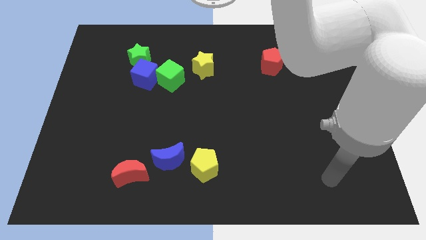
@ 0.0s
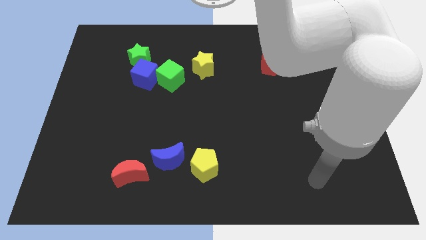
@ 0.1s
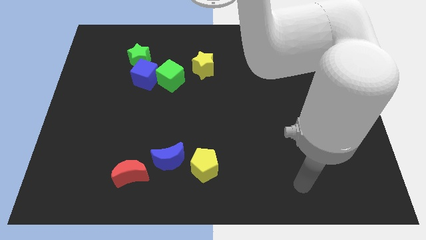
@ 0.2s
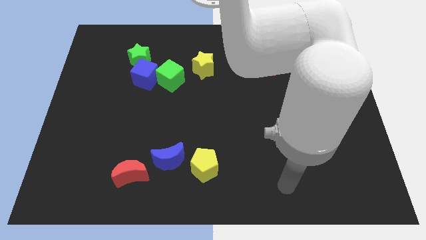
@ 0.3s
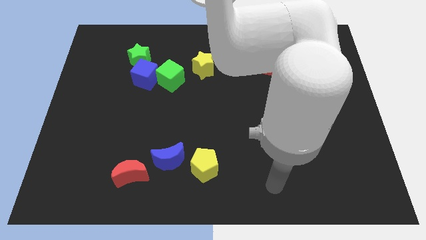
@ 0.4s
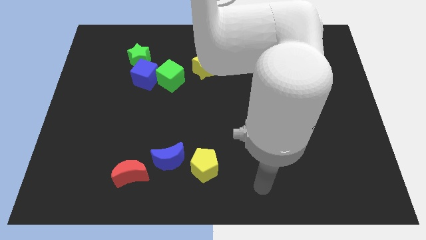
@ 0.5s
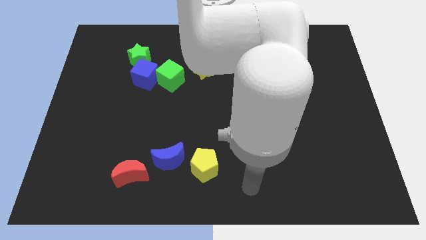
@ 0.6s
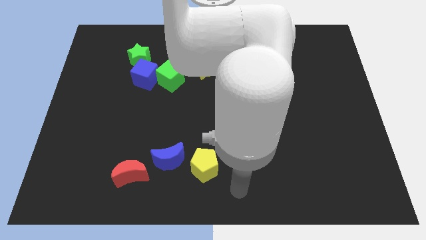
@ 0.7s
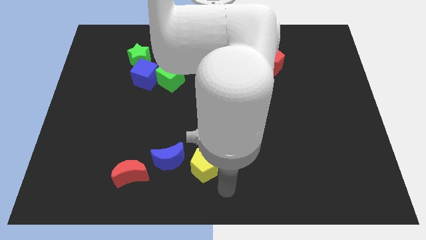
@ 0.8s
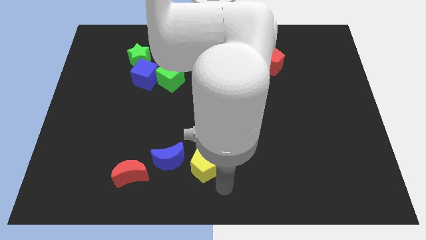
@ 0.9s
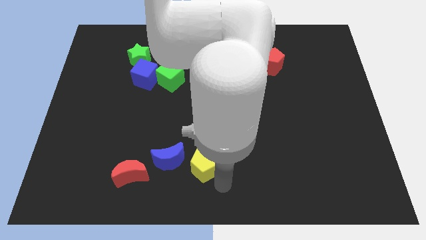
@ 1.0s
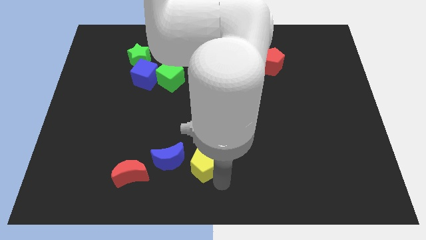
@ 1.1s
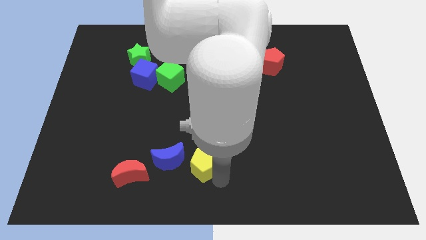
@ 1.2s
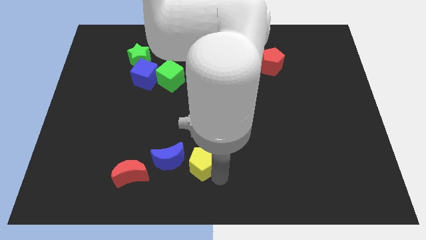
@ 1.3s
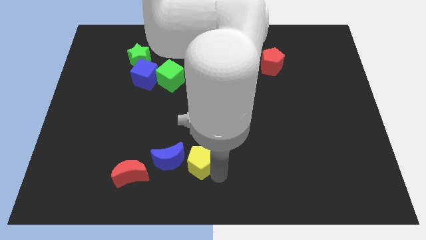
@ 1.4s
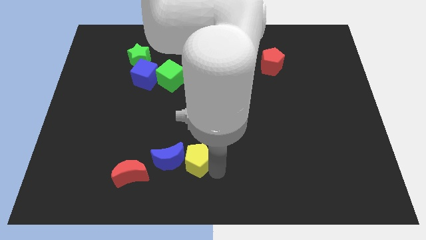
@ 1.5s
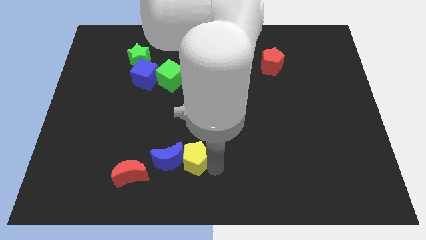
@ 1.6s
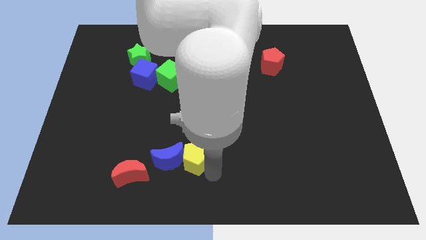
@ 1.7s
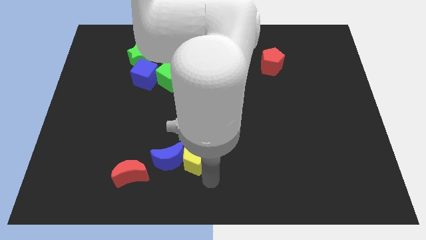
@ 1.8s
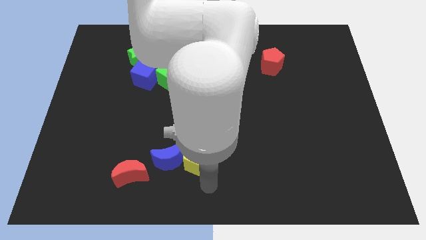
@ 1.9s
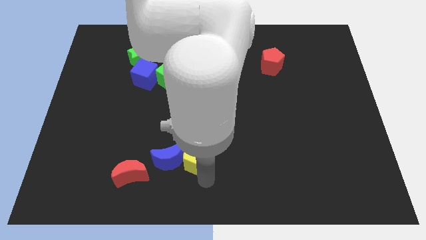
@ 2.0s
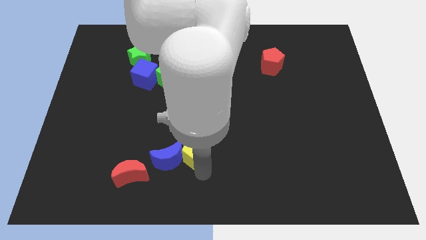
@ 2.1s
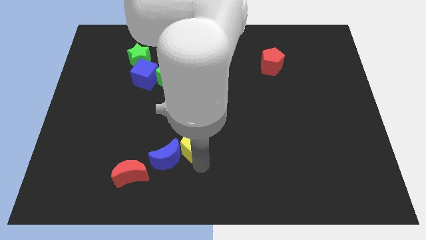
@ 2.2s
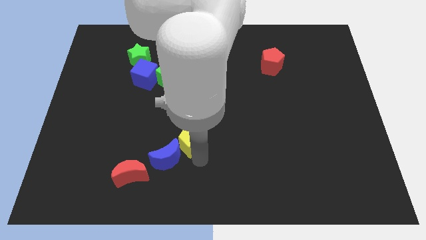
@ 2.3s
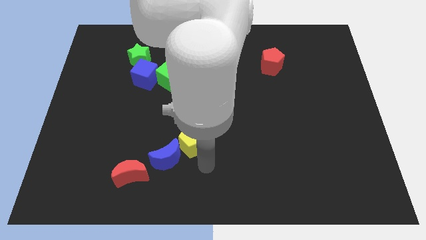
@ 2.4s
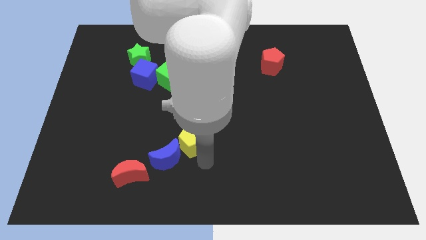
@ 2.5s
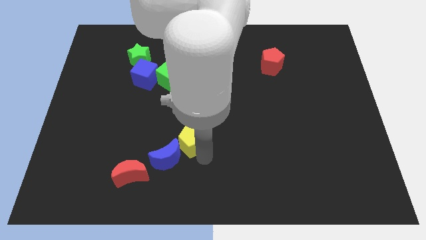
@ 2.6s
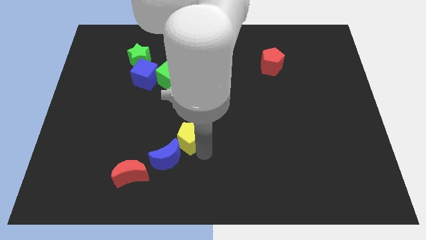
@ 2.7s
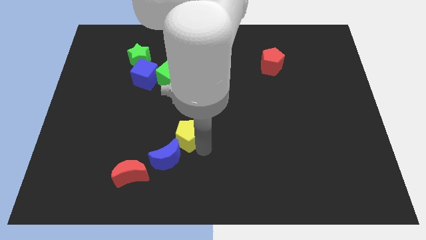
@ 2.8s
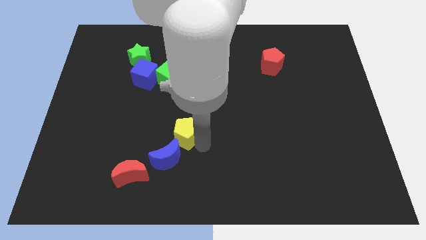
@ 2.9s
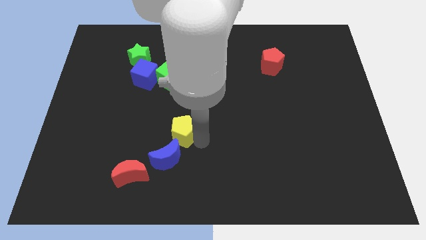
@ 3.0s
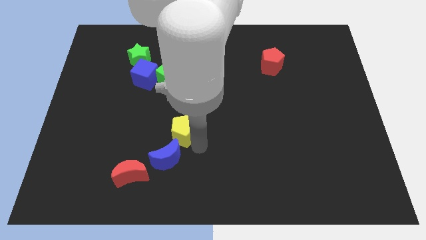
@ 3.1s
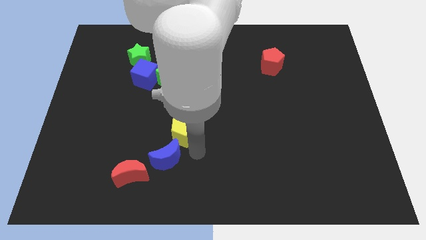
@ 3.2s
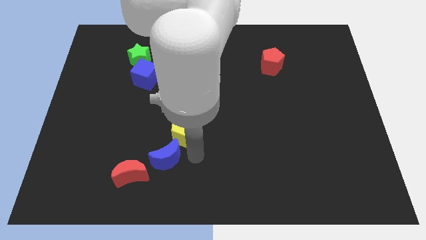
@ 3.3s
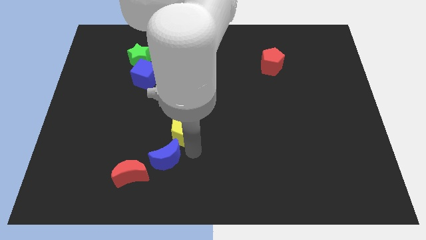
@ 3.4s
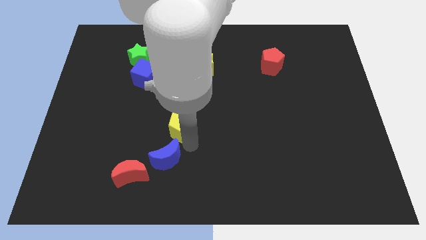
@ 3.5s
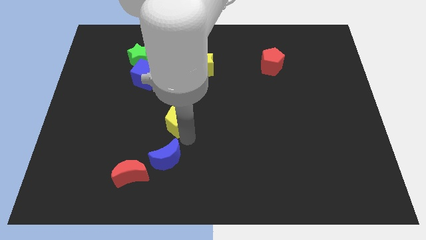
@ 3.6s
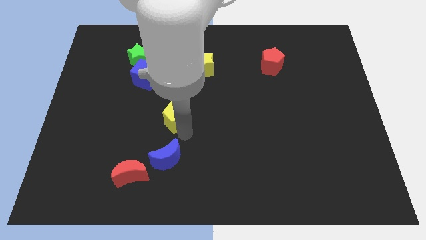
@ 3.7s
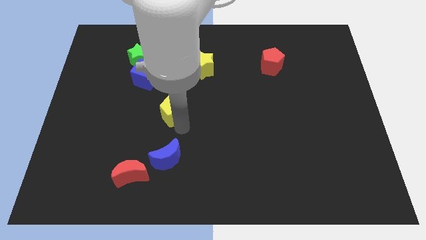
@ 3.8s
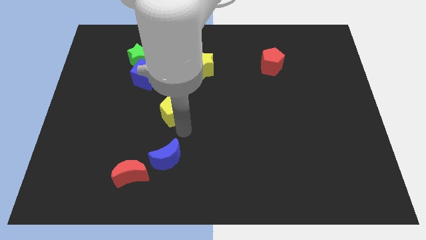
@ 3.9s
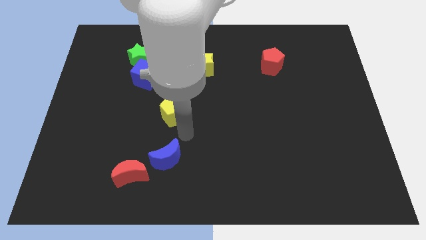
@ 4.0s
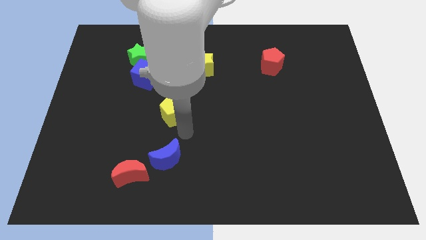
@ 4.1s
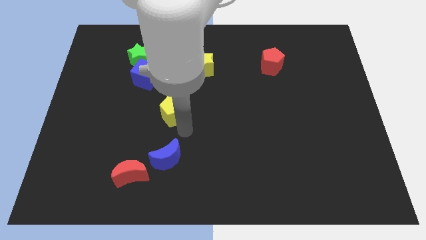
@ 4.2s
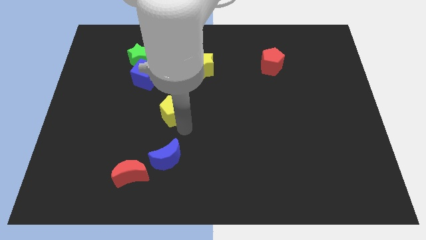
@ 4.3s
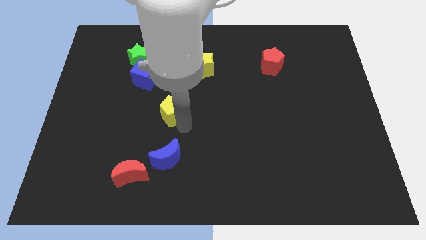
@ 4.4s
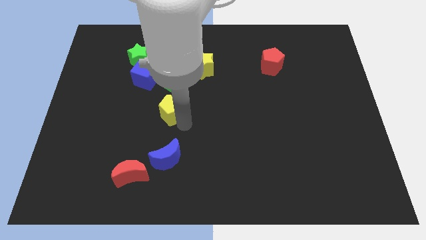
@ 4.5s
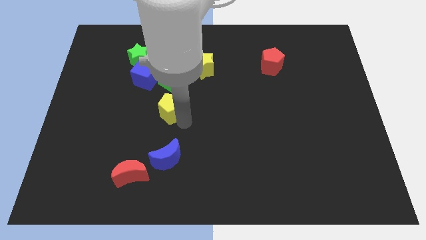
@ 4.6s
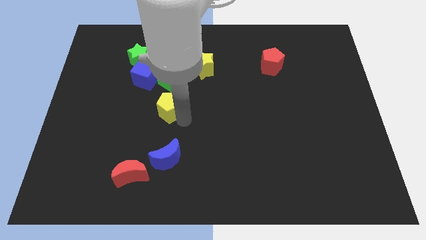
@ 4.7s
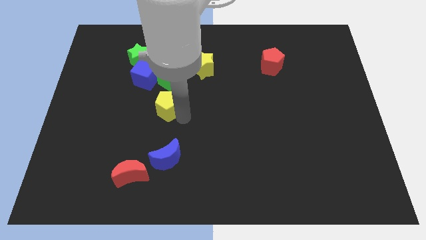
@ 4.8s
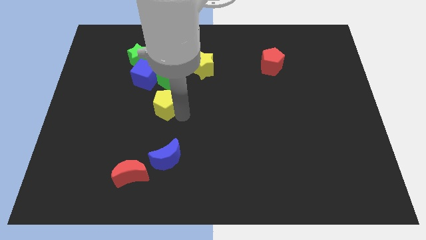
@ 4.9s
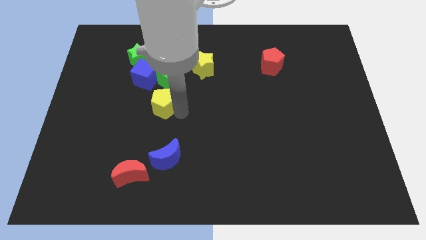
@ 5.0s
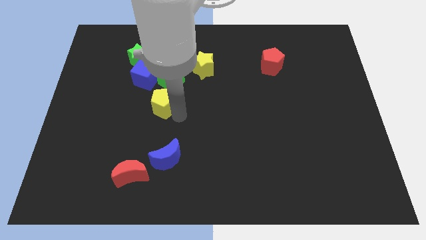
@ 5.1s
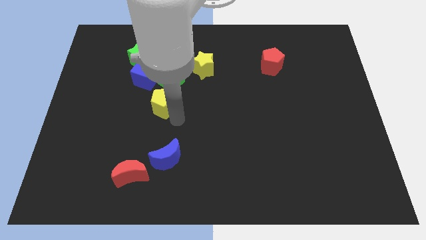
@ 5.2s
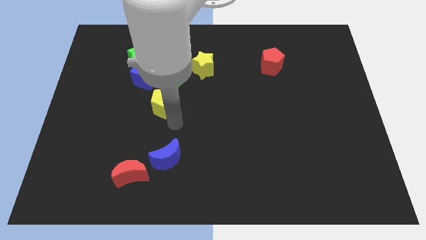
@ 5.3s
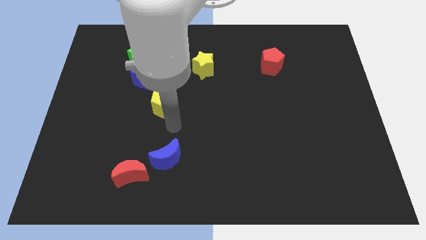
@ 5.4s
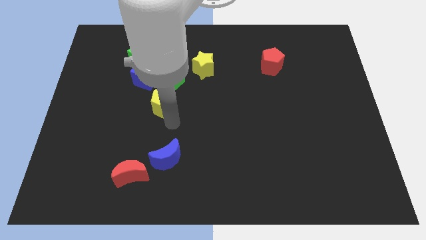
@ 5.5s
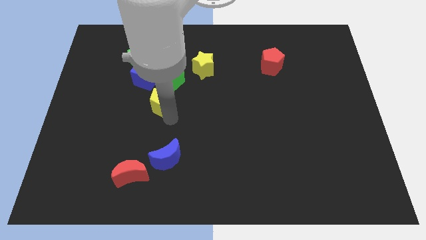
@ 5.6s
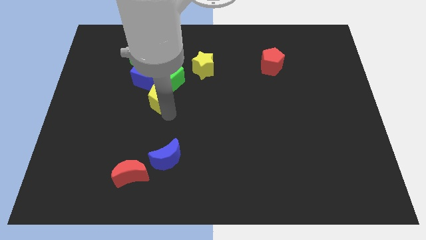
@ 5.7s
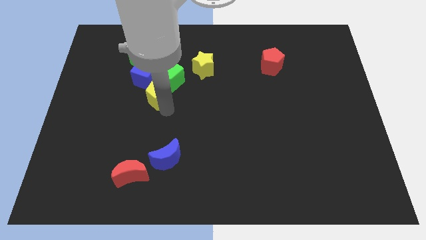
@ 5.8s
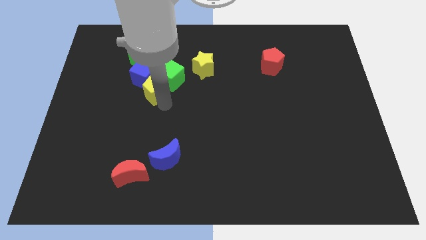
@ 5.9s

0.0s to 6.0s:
slide the yellow pentagon next to the blue cube
